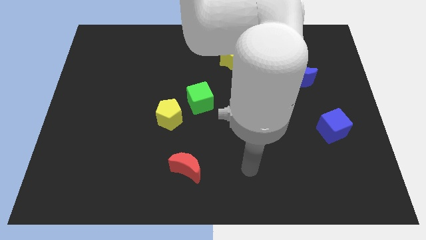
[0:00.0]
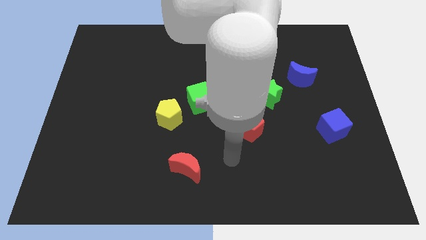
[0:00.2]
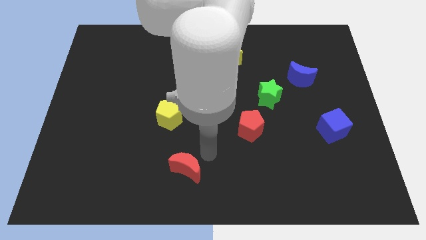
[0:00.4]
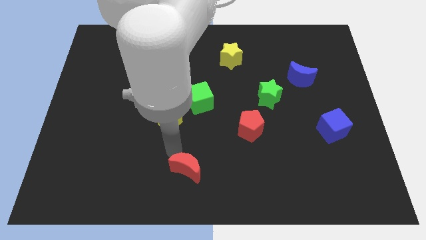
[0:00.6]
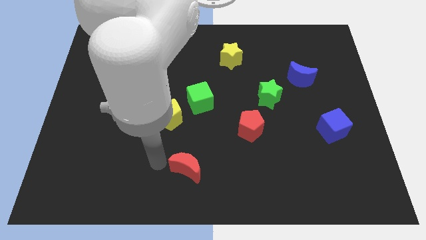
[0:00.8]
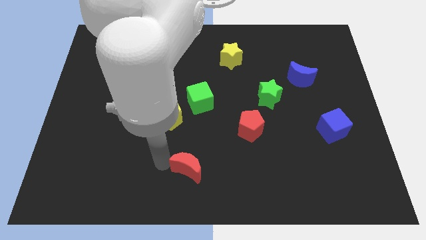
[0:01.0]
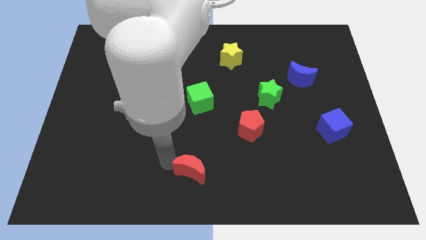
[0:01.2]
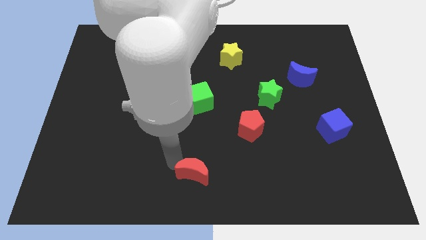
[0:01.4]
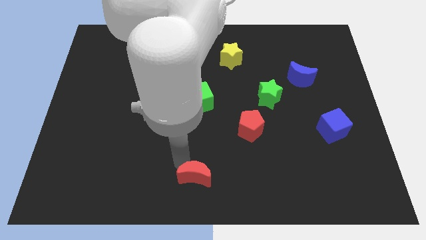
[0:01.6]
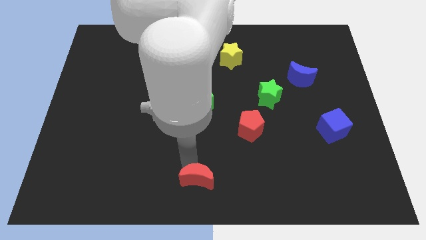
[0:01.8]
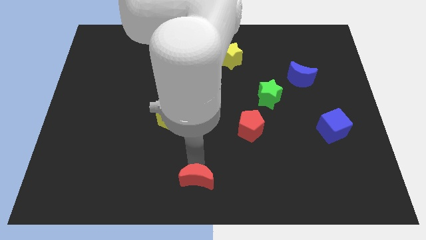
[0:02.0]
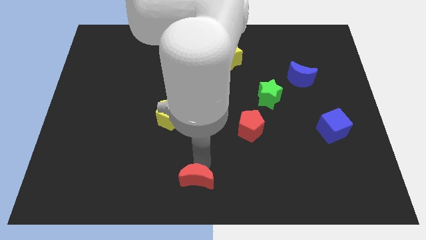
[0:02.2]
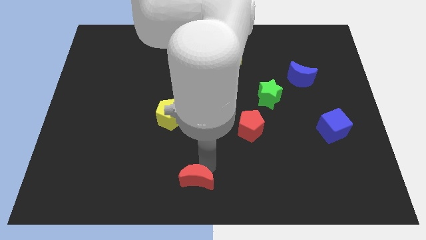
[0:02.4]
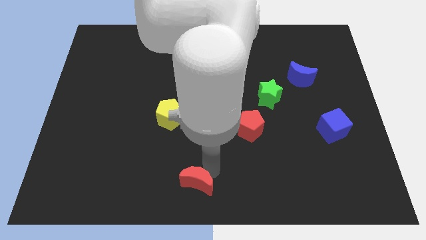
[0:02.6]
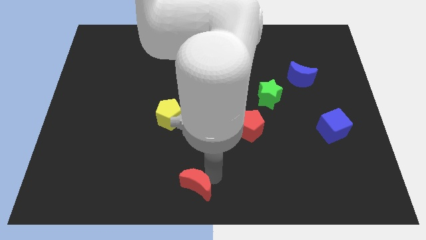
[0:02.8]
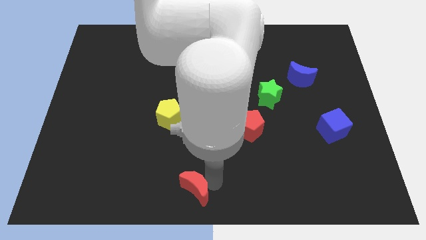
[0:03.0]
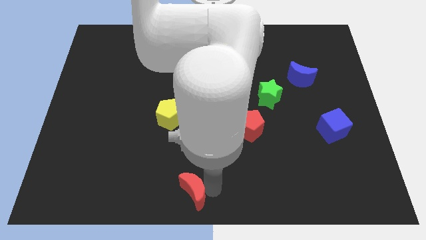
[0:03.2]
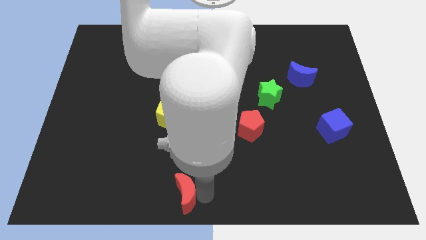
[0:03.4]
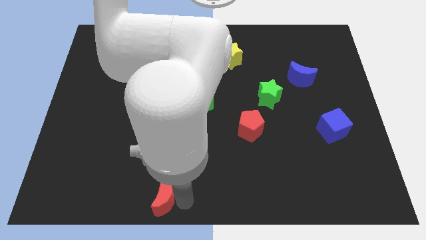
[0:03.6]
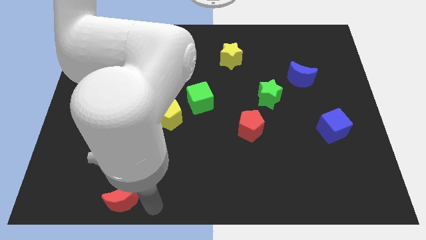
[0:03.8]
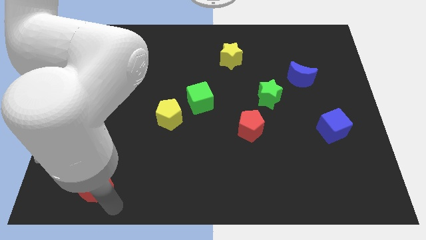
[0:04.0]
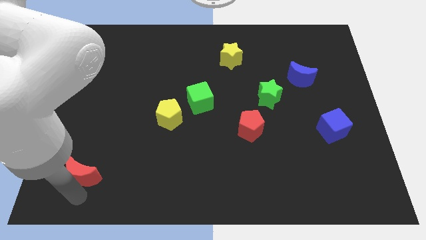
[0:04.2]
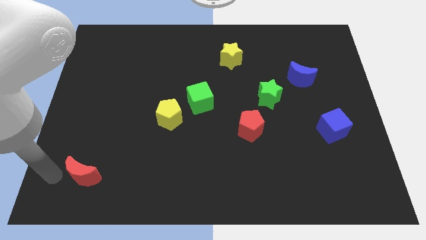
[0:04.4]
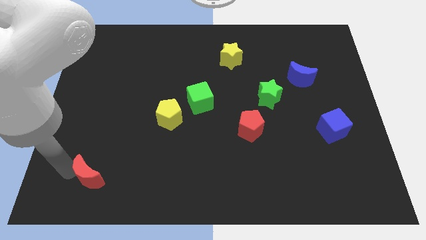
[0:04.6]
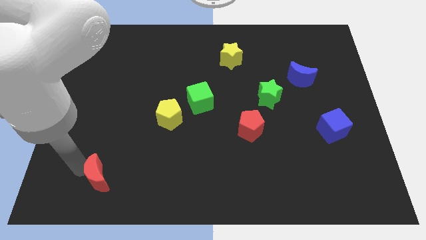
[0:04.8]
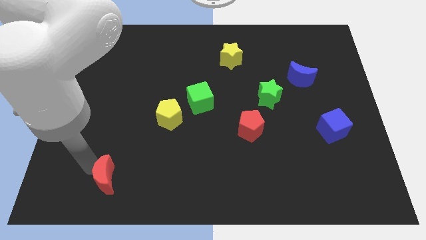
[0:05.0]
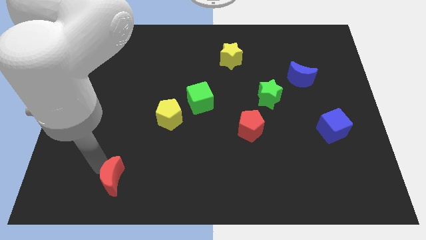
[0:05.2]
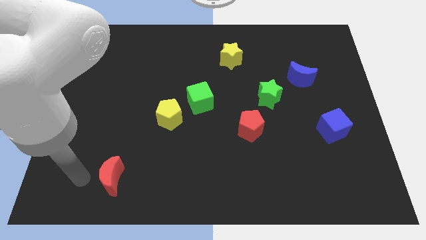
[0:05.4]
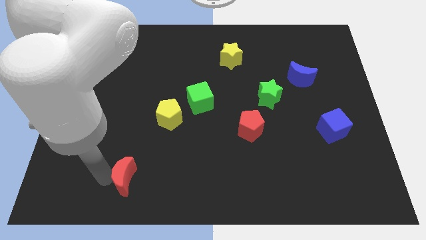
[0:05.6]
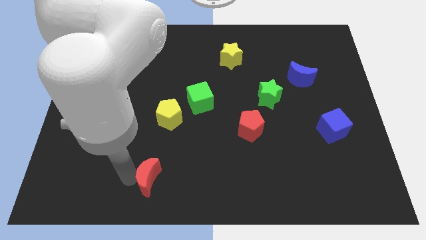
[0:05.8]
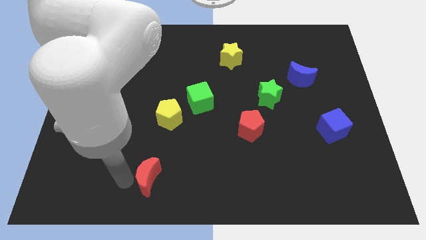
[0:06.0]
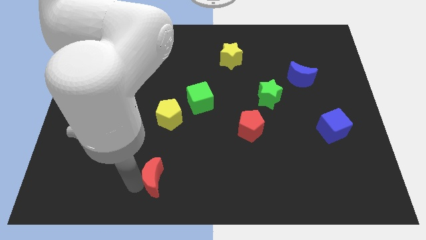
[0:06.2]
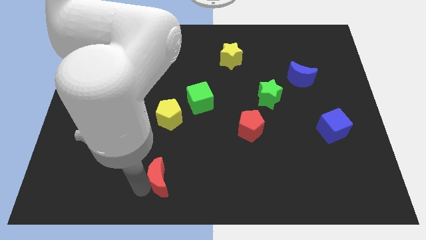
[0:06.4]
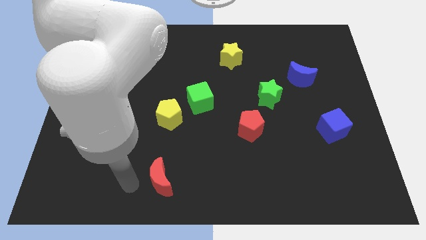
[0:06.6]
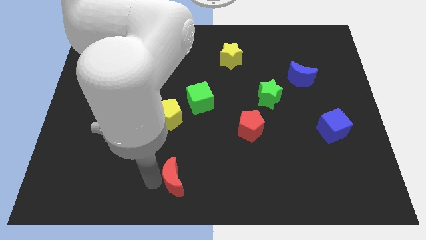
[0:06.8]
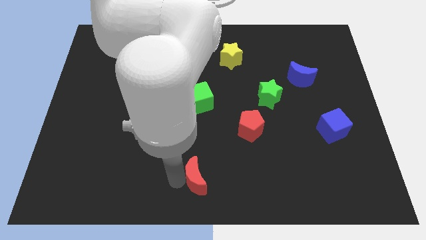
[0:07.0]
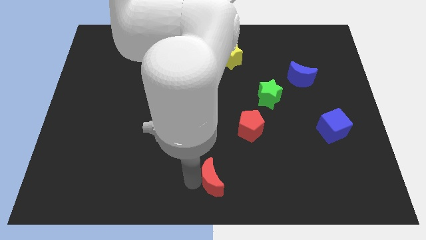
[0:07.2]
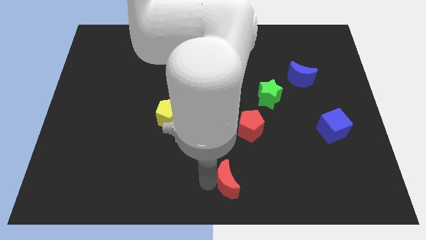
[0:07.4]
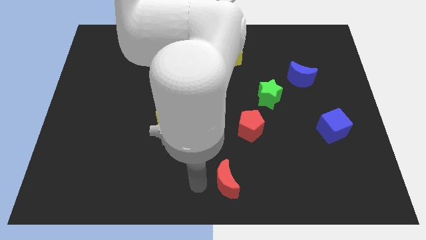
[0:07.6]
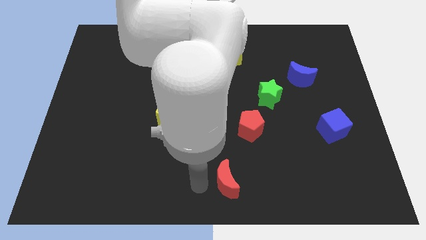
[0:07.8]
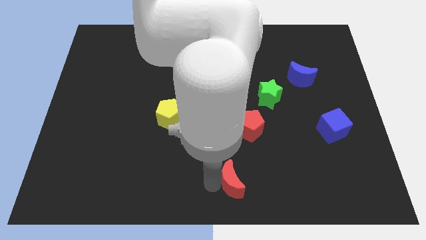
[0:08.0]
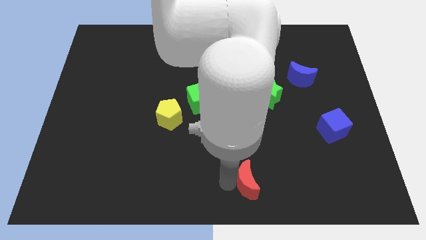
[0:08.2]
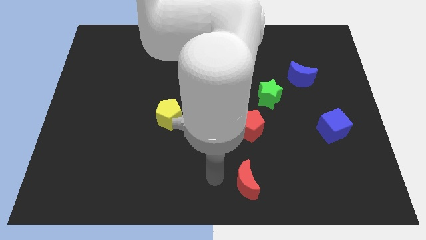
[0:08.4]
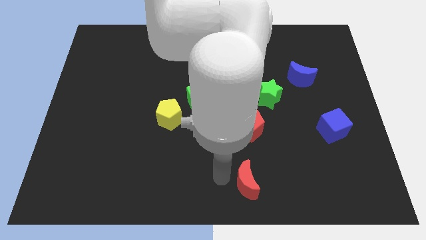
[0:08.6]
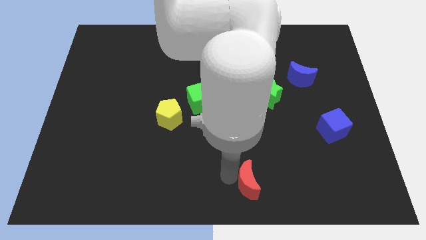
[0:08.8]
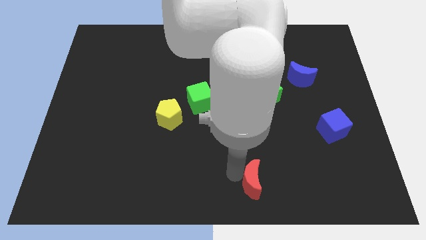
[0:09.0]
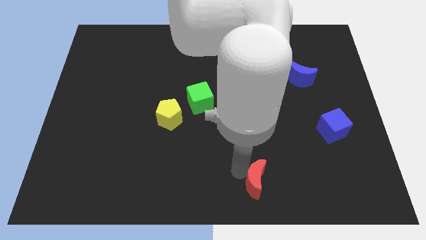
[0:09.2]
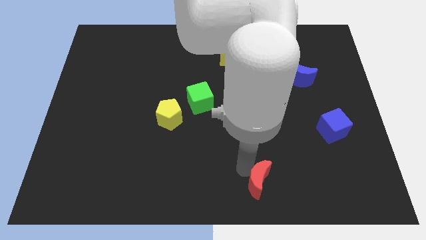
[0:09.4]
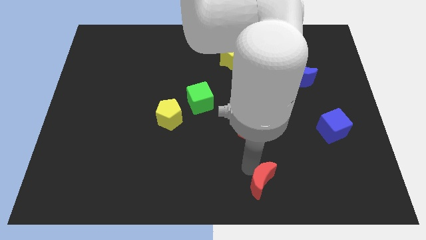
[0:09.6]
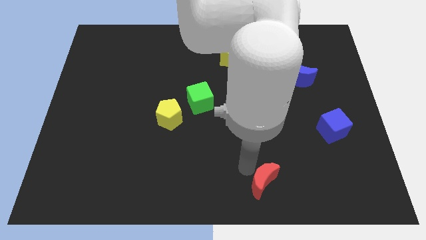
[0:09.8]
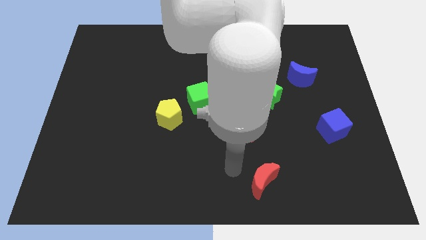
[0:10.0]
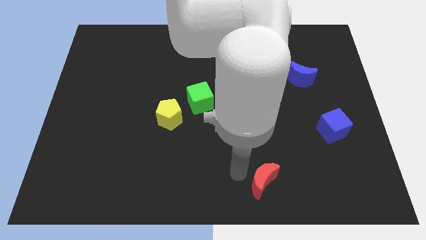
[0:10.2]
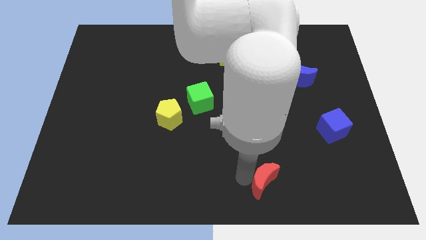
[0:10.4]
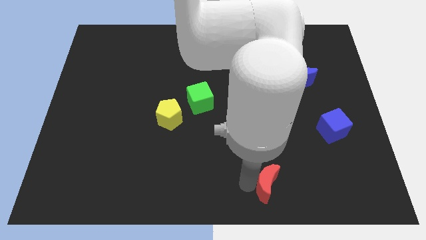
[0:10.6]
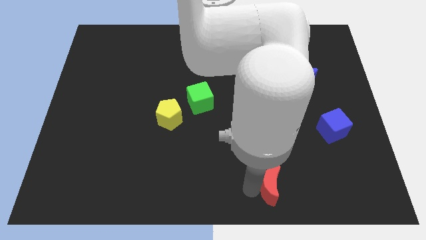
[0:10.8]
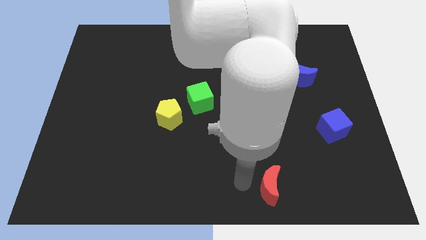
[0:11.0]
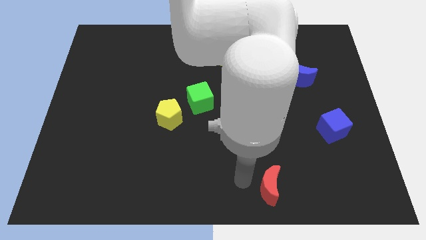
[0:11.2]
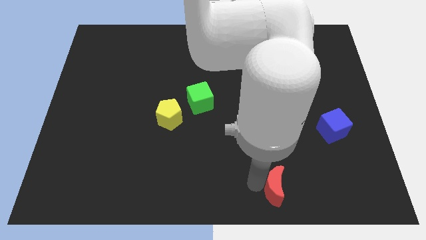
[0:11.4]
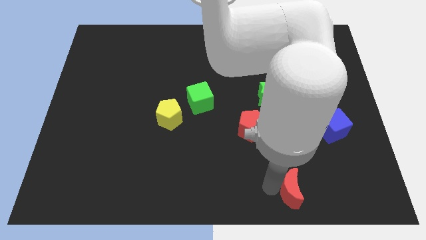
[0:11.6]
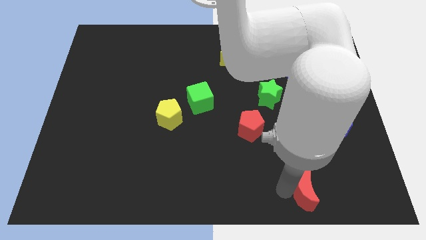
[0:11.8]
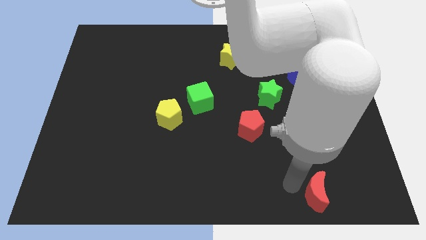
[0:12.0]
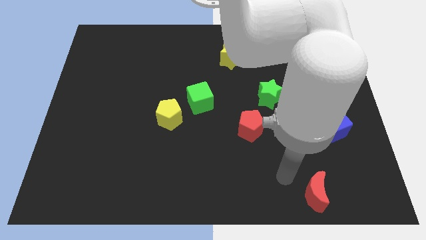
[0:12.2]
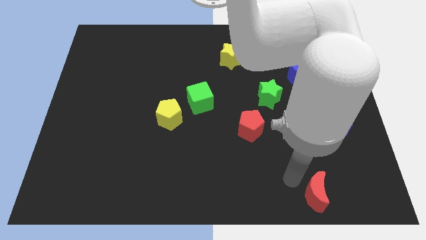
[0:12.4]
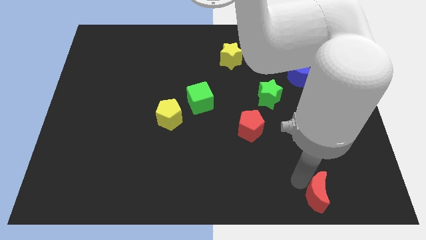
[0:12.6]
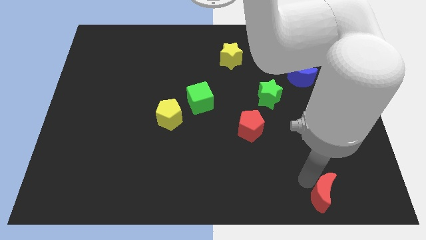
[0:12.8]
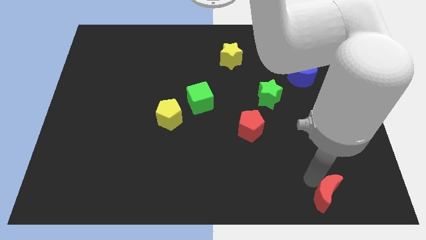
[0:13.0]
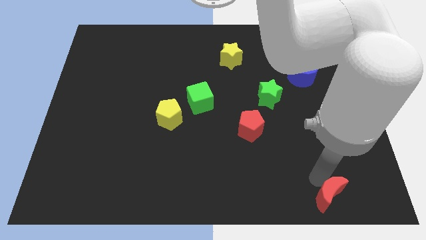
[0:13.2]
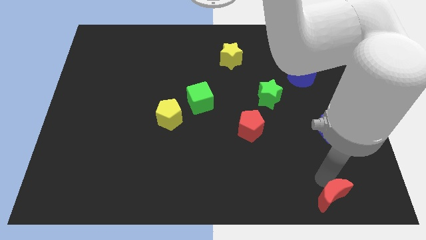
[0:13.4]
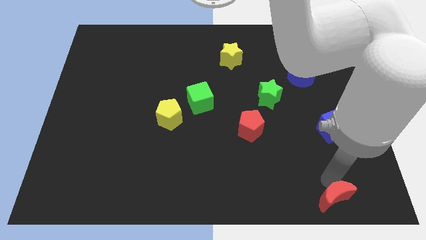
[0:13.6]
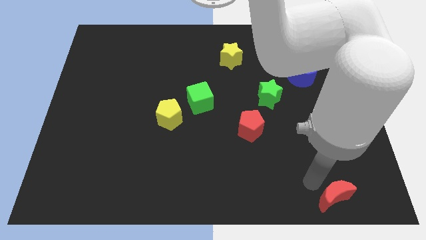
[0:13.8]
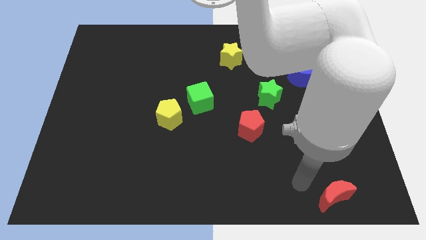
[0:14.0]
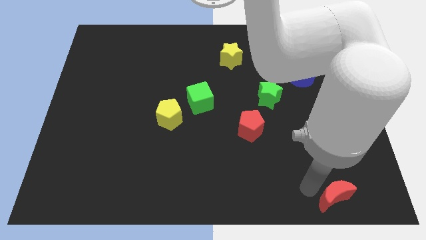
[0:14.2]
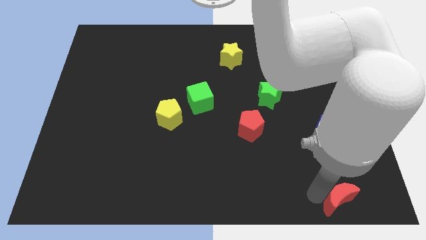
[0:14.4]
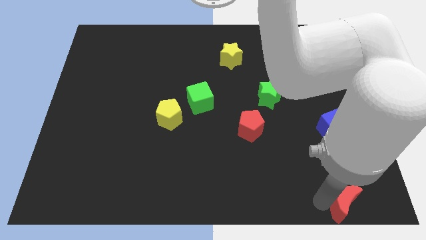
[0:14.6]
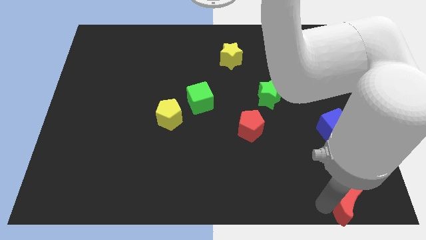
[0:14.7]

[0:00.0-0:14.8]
put the red moon to the lower right corner

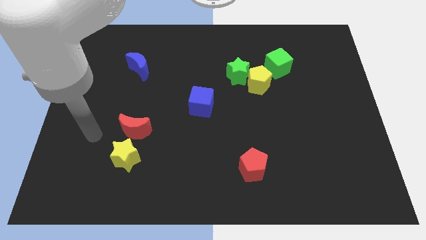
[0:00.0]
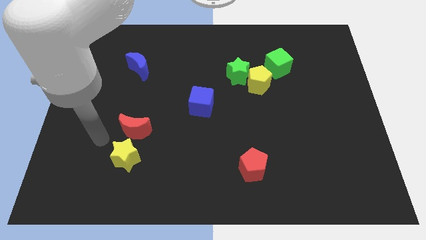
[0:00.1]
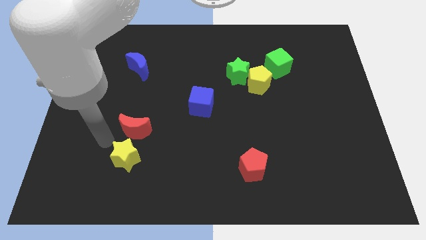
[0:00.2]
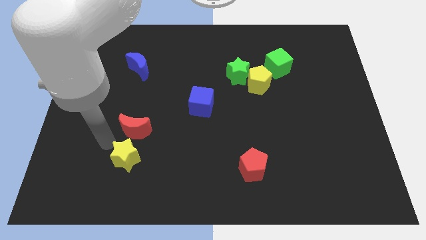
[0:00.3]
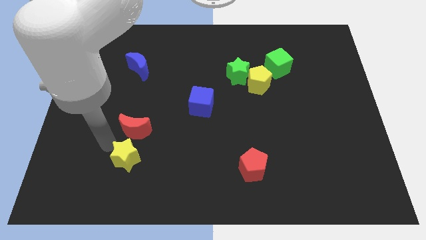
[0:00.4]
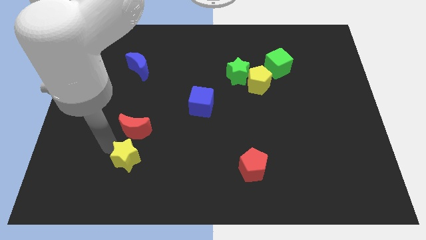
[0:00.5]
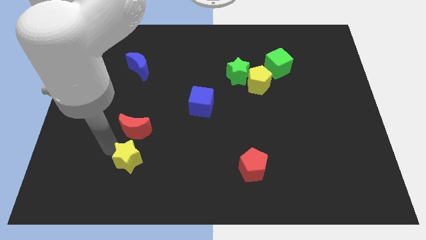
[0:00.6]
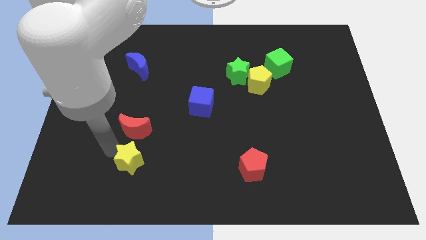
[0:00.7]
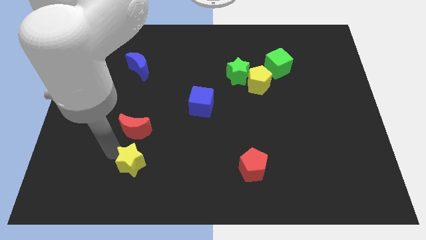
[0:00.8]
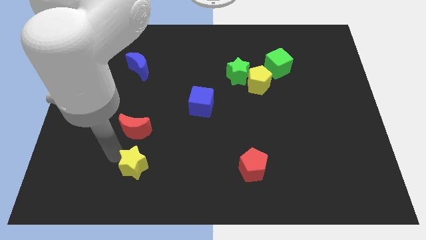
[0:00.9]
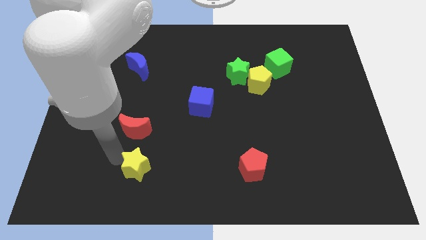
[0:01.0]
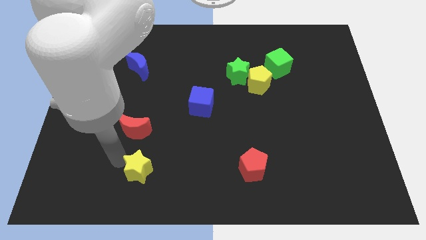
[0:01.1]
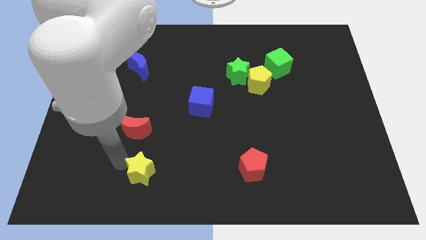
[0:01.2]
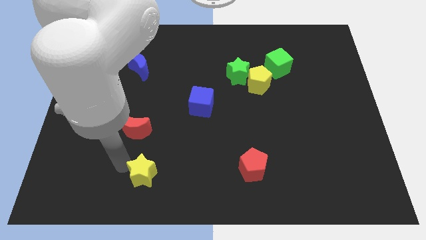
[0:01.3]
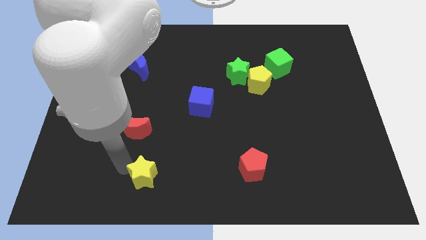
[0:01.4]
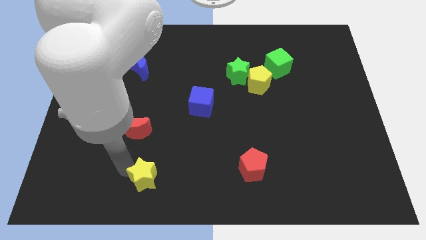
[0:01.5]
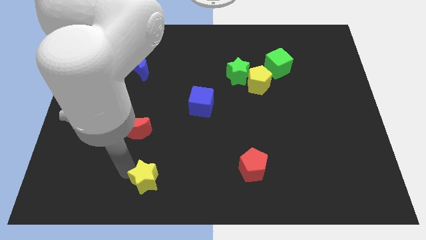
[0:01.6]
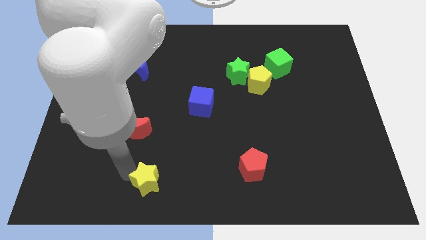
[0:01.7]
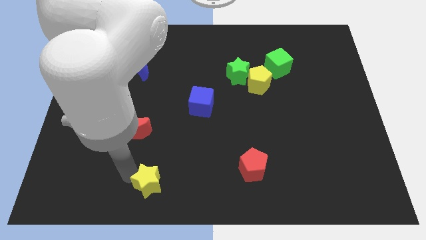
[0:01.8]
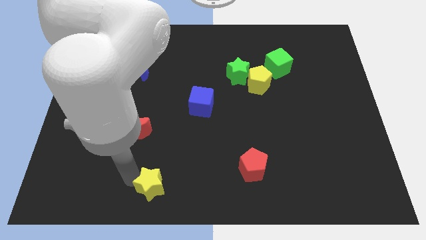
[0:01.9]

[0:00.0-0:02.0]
move the yellow star to the bottom
